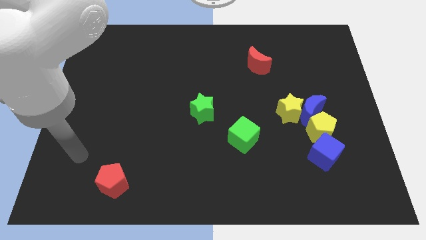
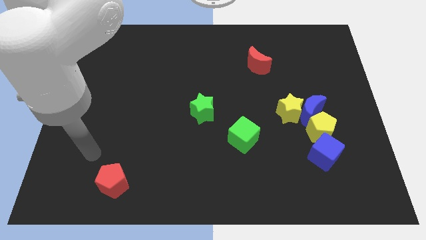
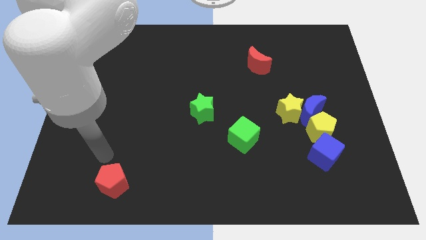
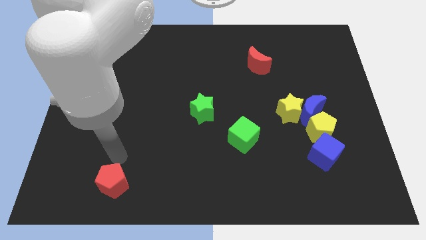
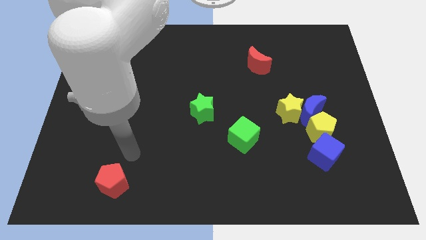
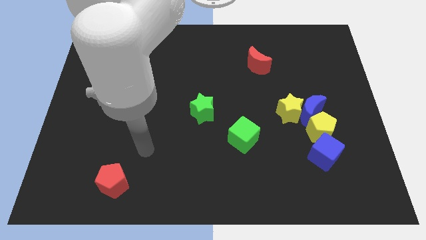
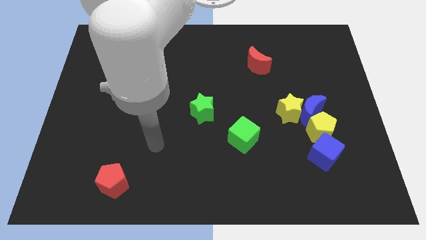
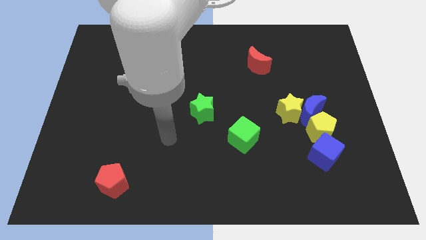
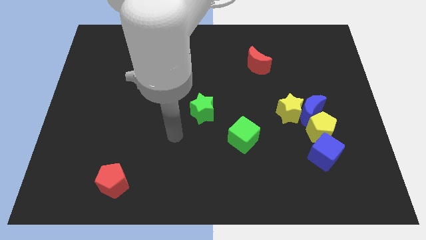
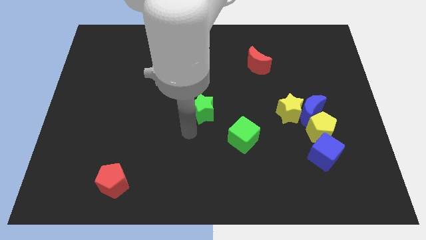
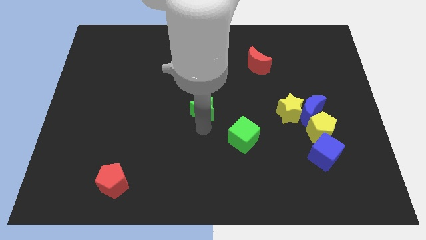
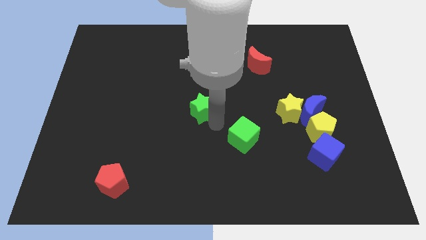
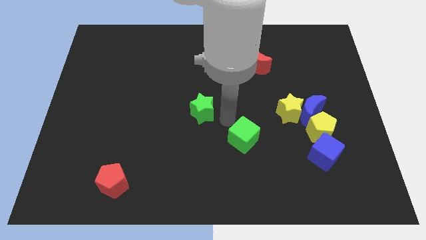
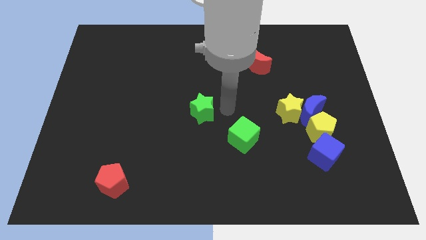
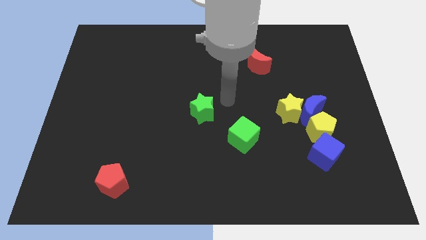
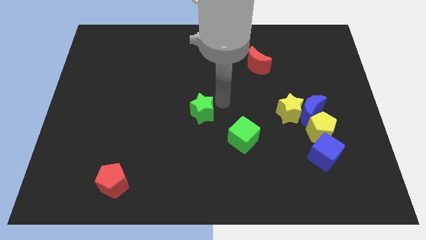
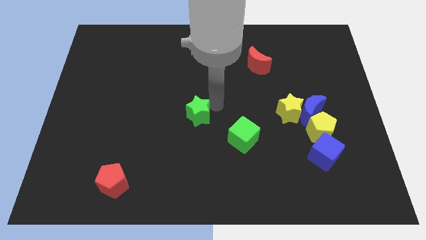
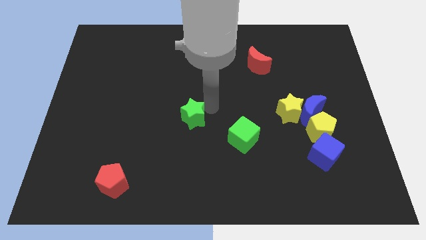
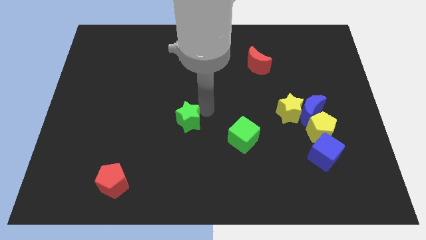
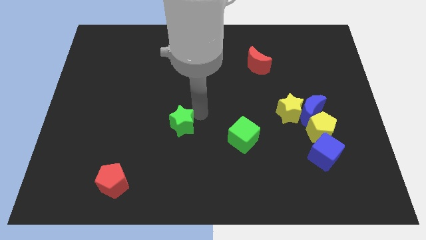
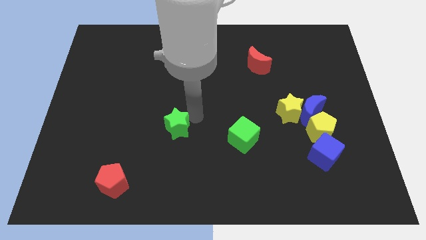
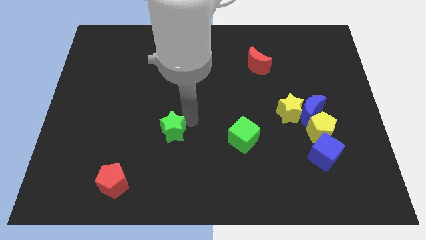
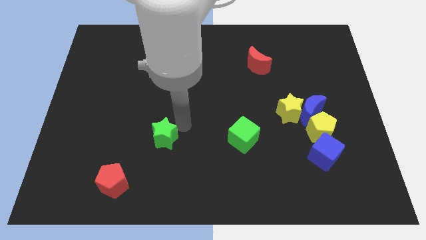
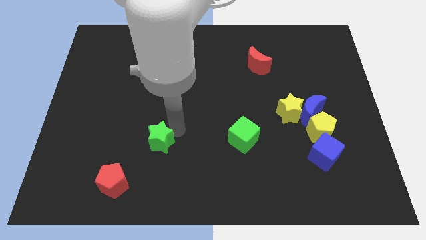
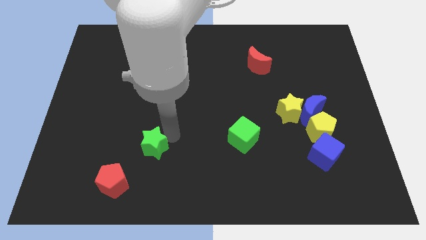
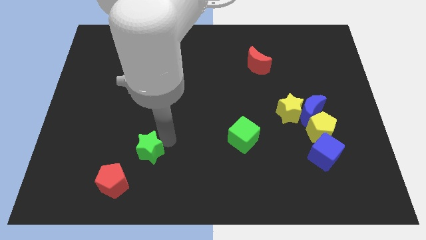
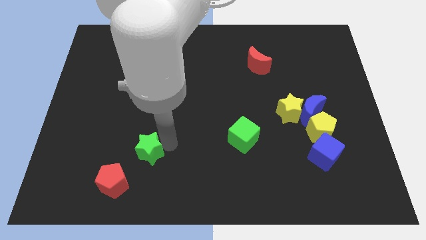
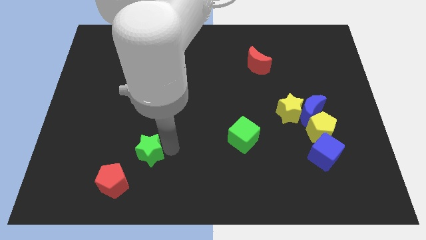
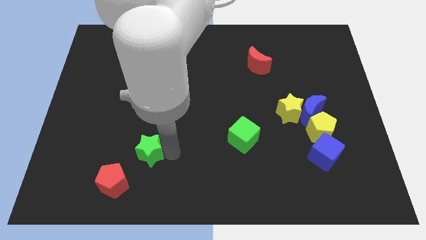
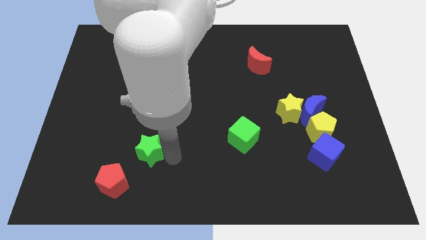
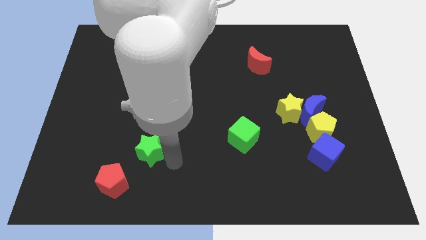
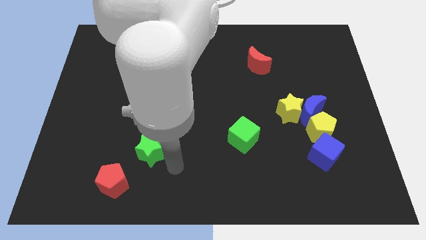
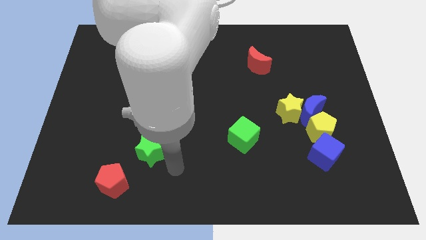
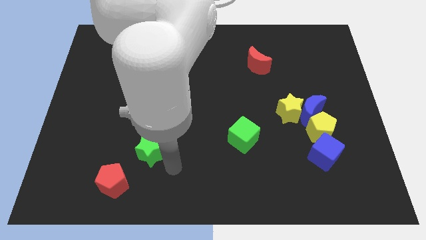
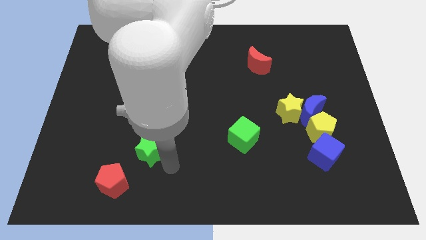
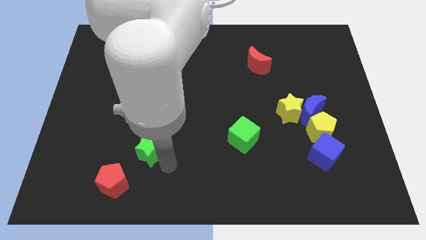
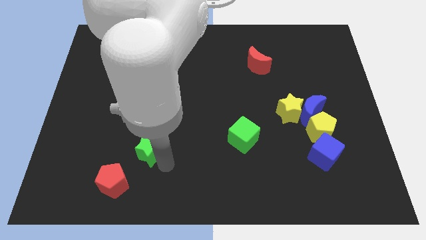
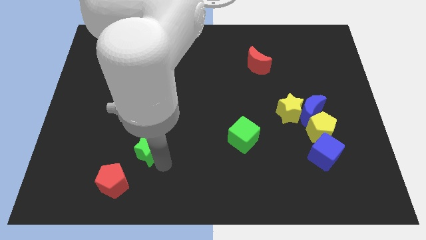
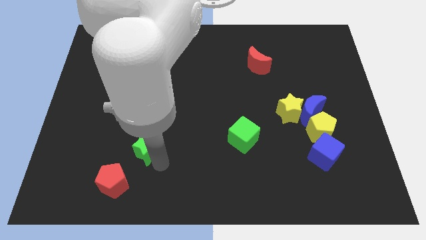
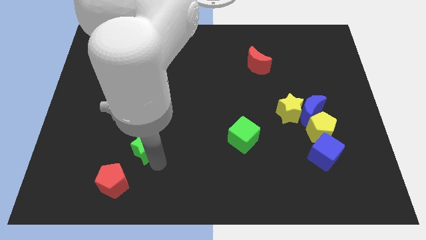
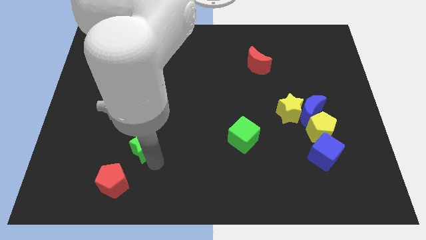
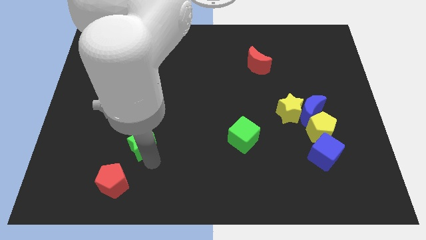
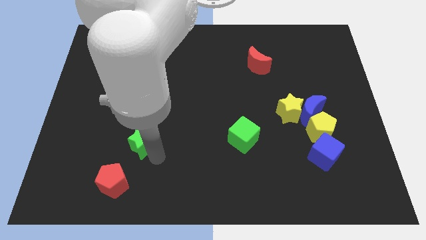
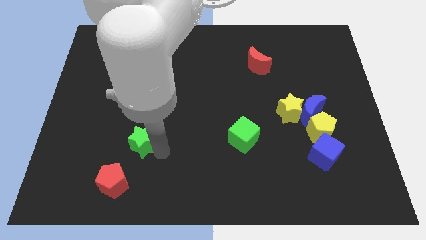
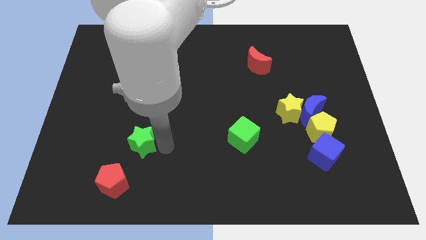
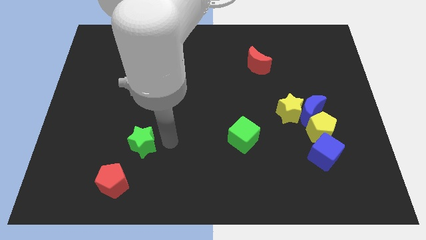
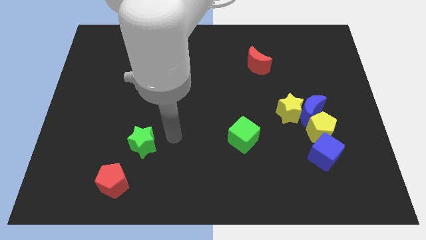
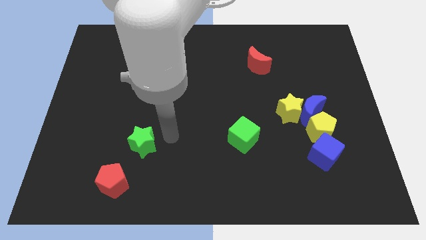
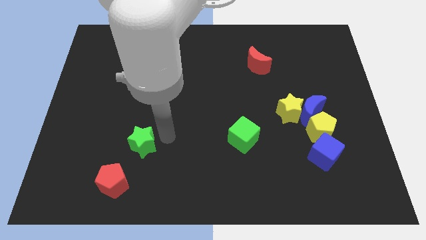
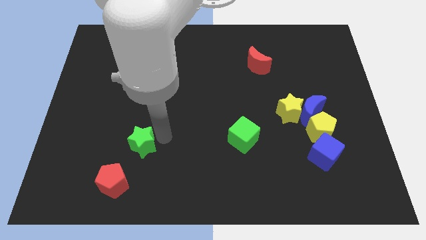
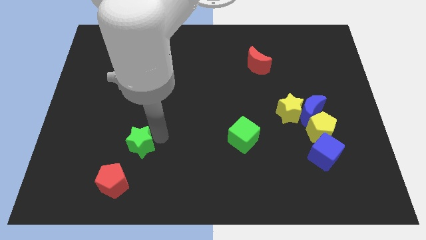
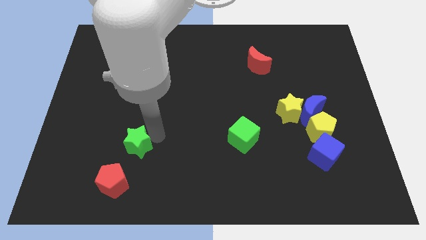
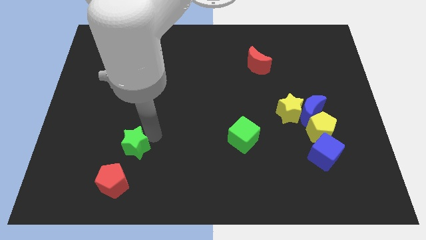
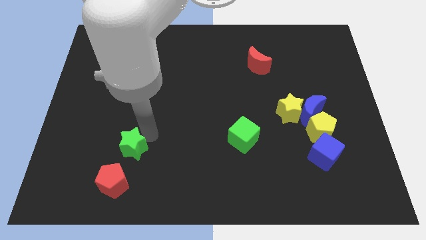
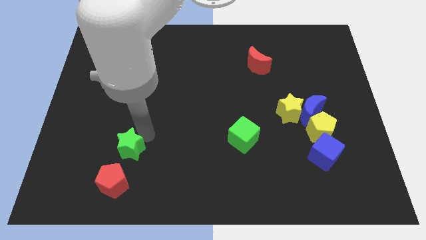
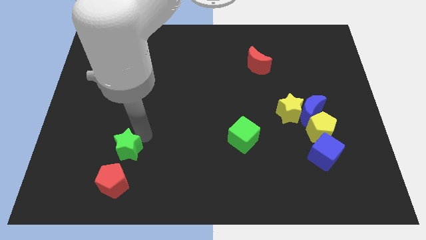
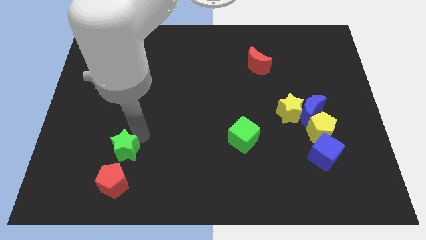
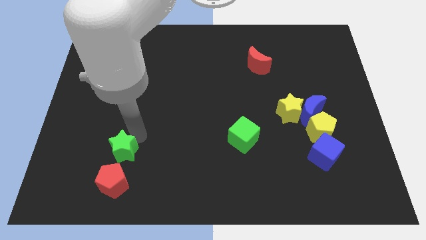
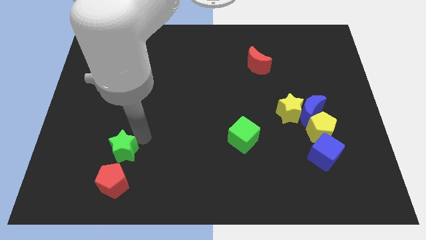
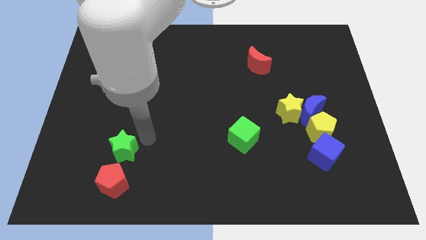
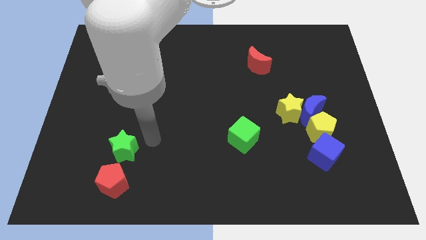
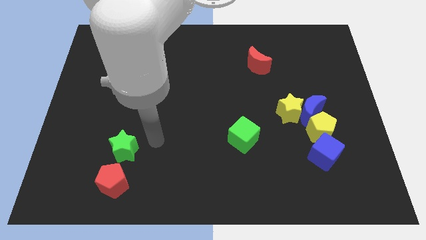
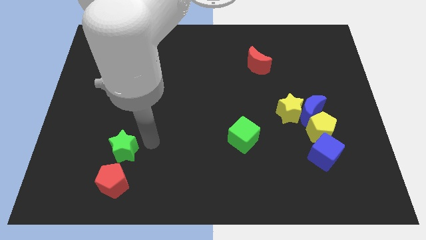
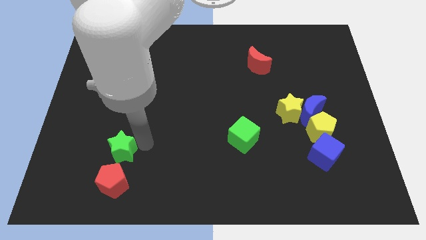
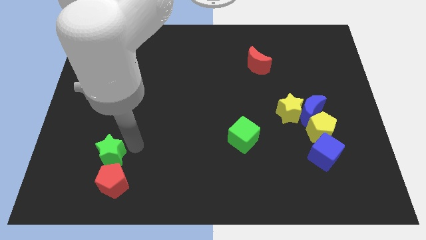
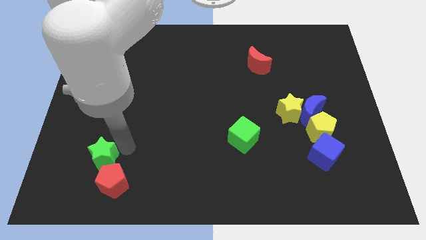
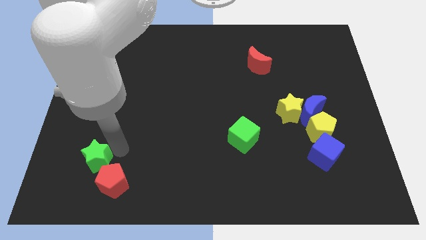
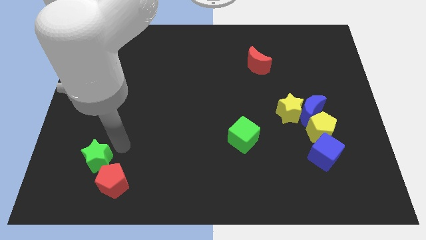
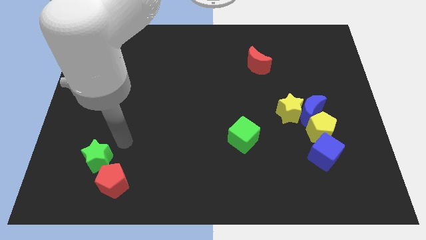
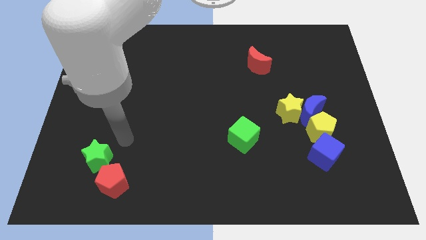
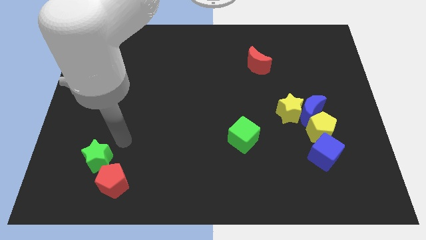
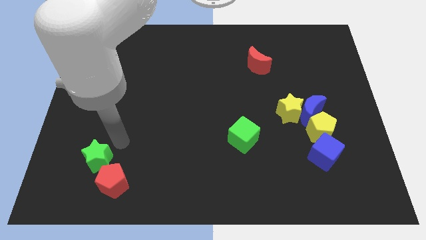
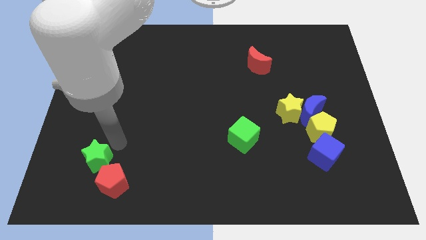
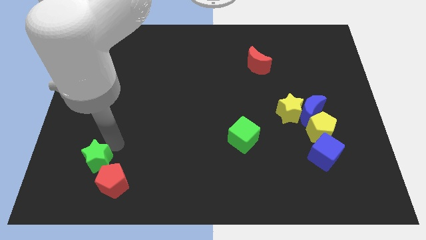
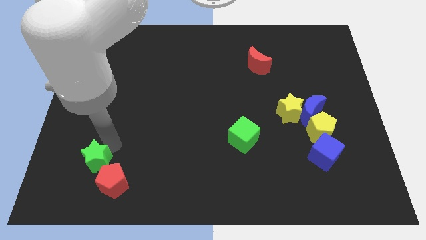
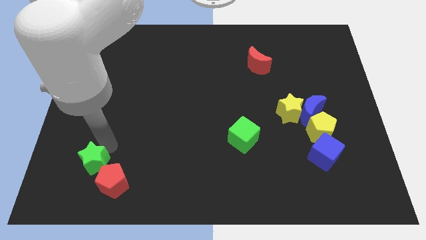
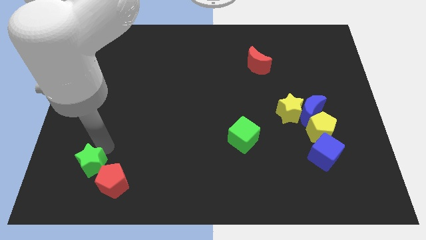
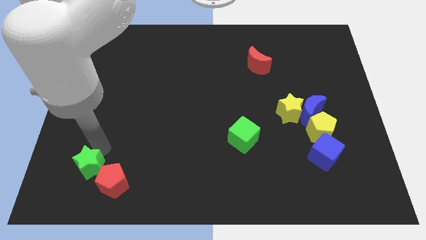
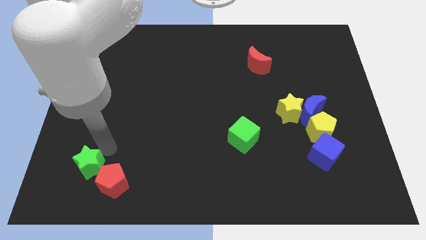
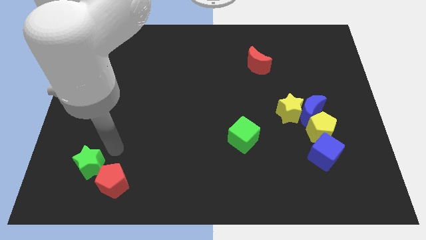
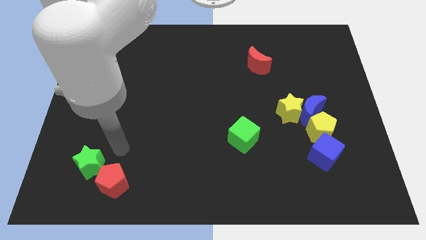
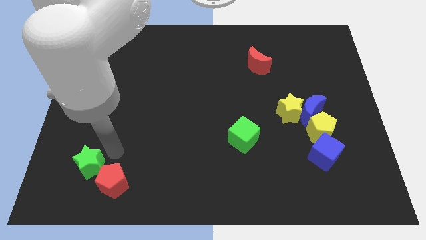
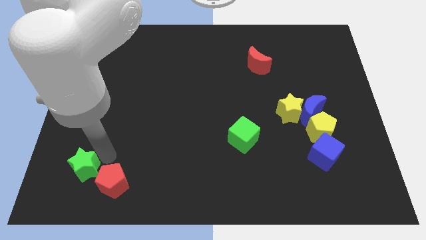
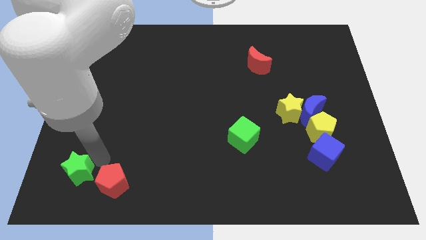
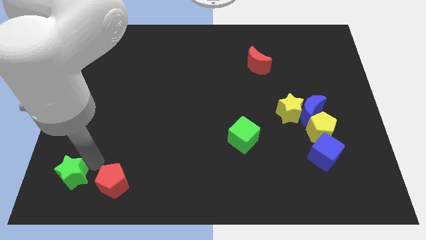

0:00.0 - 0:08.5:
push the green star to the bottom left
